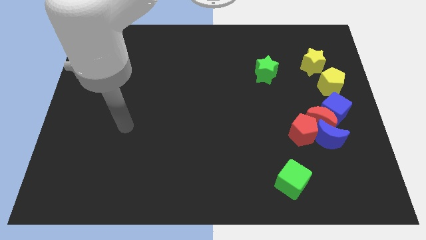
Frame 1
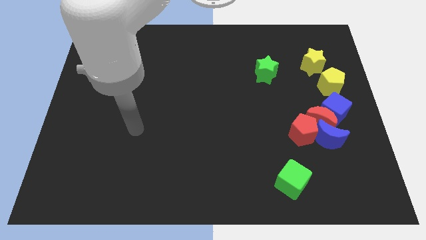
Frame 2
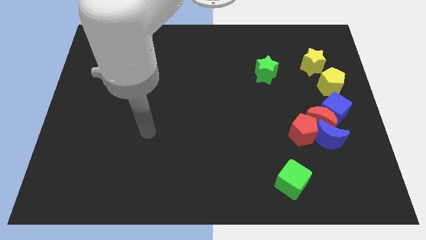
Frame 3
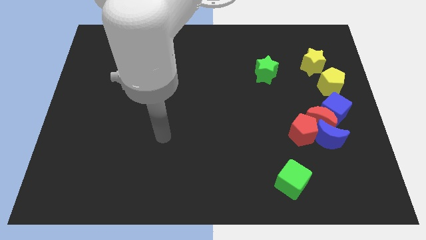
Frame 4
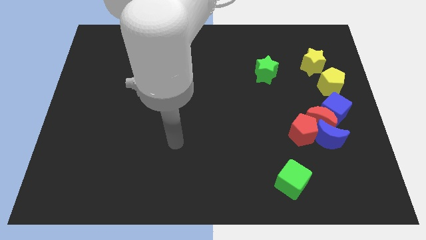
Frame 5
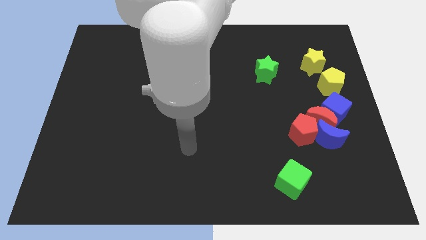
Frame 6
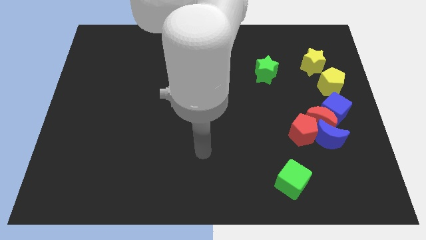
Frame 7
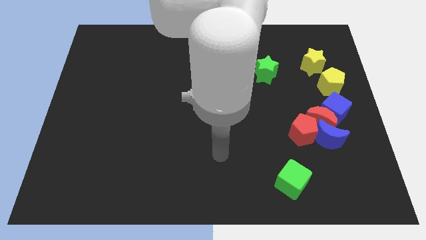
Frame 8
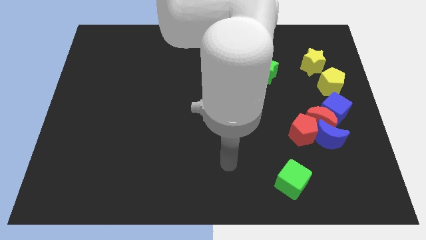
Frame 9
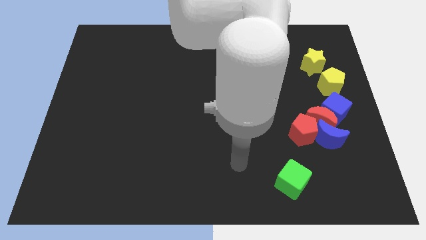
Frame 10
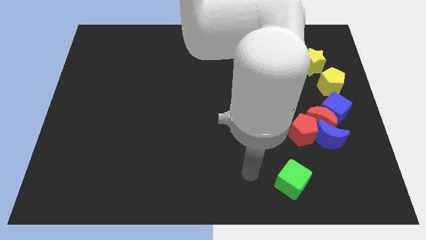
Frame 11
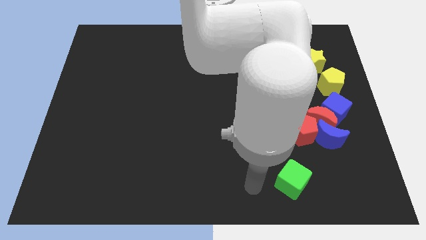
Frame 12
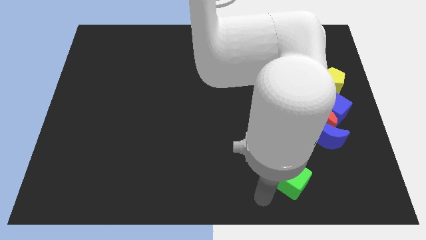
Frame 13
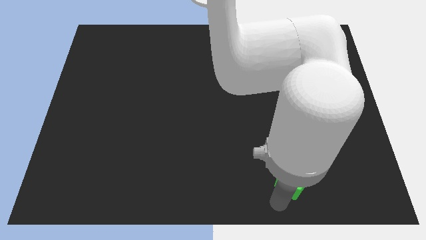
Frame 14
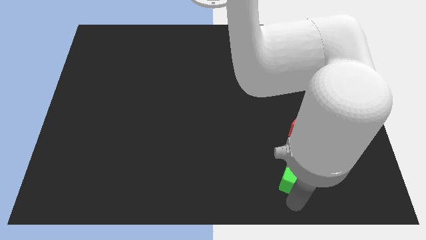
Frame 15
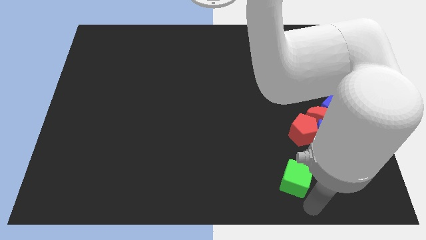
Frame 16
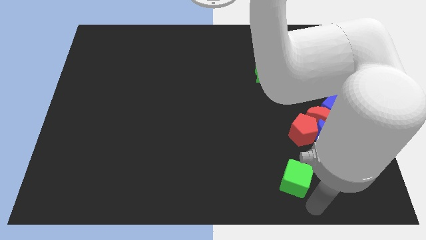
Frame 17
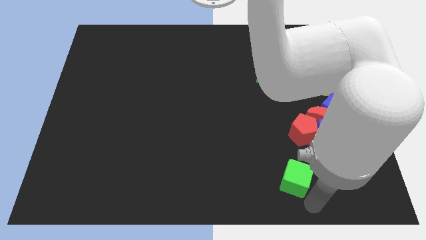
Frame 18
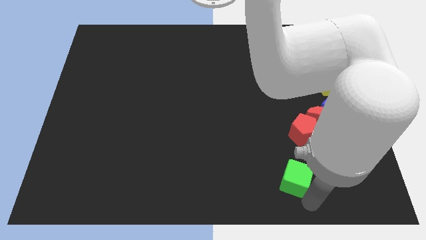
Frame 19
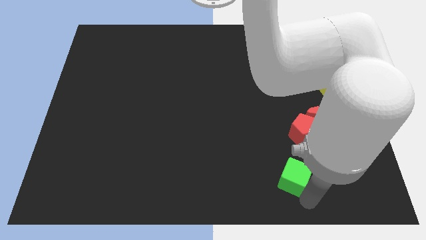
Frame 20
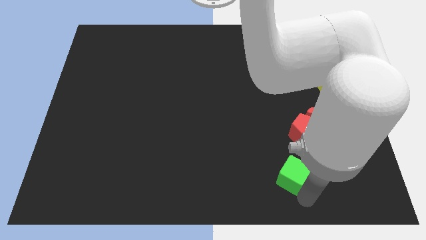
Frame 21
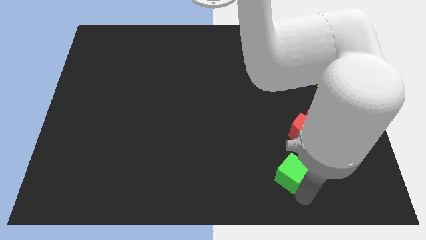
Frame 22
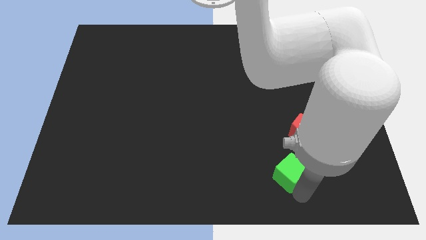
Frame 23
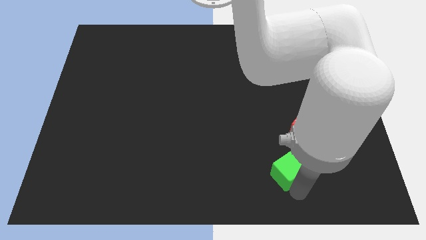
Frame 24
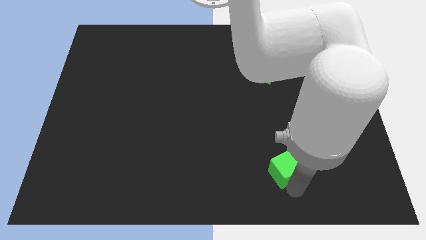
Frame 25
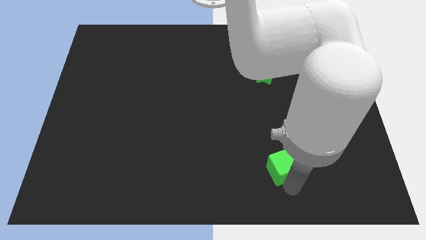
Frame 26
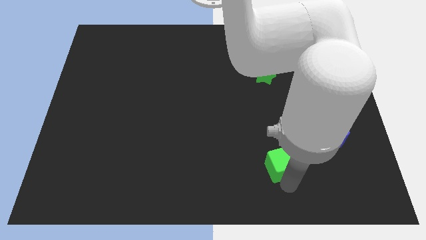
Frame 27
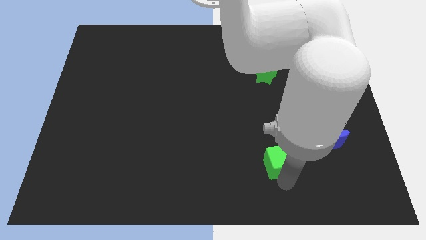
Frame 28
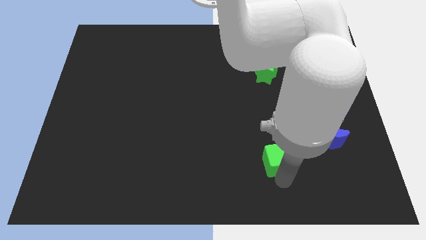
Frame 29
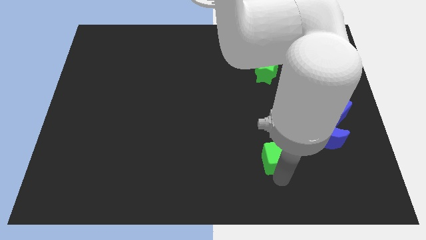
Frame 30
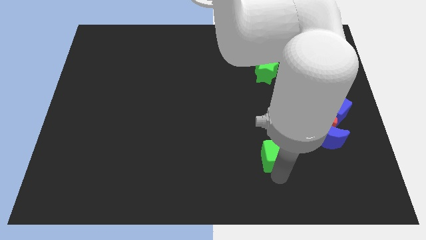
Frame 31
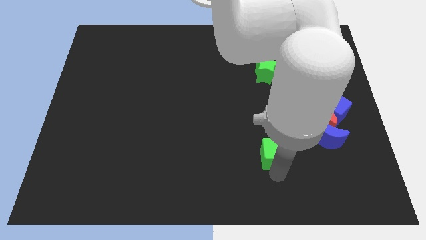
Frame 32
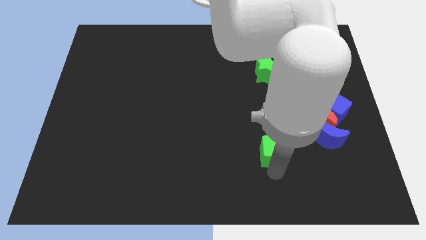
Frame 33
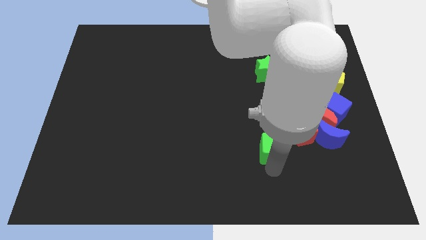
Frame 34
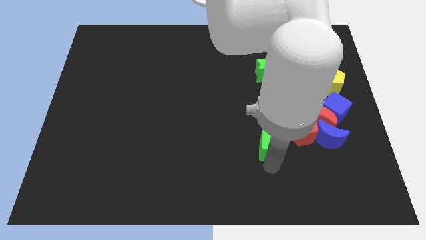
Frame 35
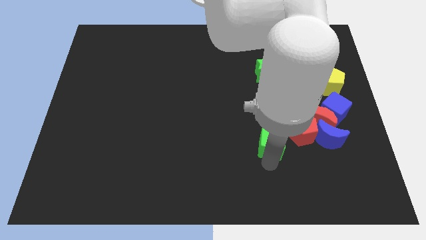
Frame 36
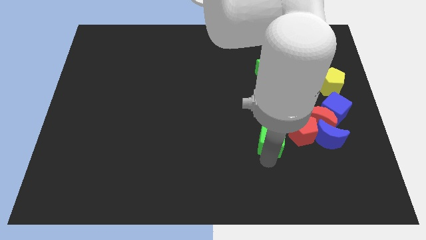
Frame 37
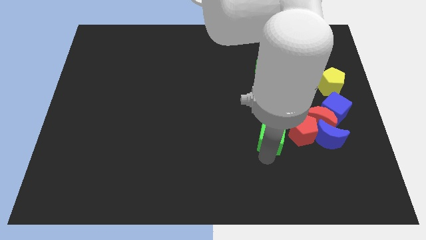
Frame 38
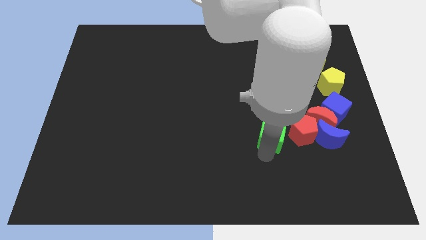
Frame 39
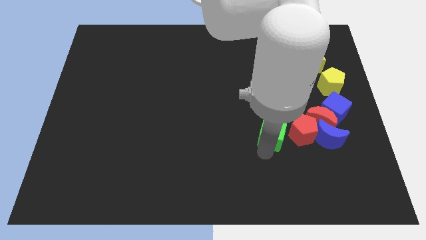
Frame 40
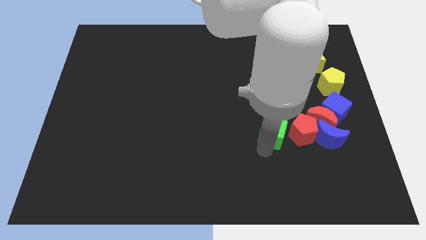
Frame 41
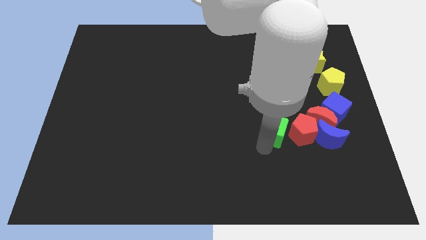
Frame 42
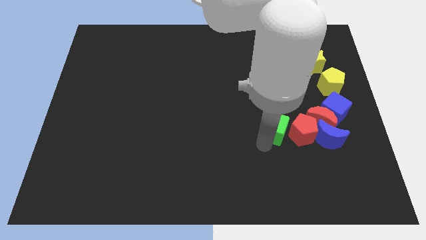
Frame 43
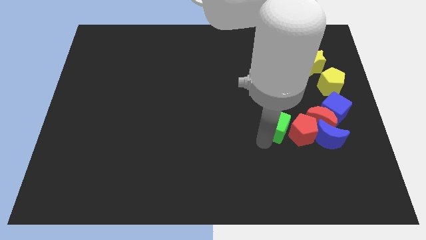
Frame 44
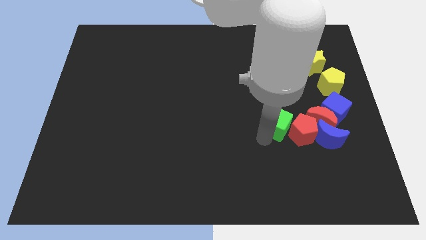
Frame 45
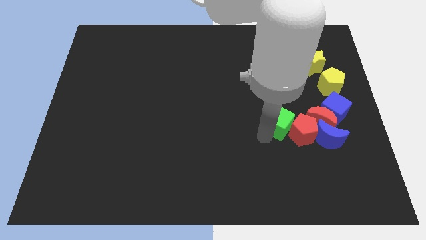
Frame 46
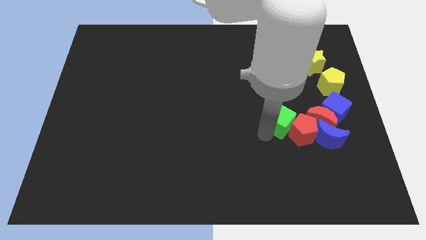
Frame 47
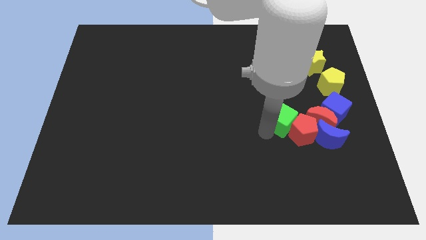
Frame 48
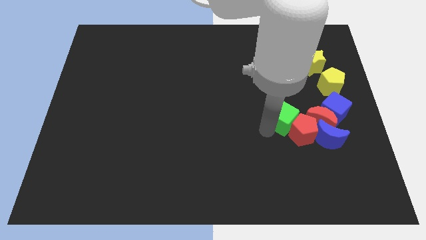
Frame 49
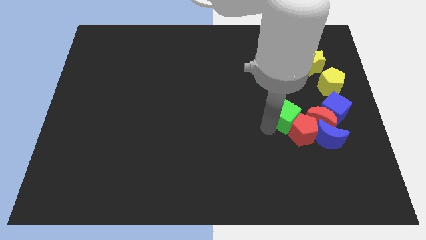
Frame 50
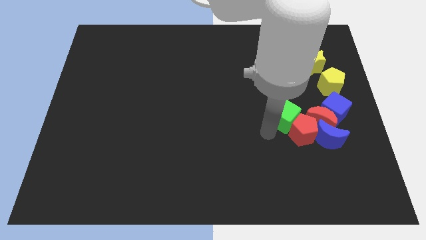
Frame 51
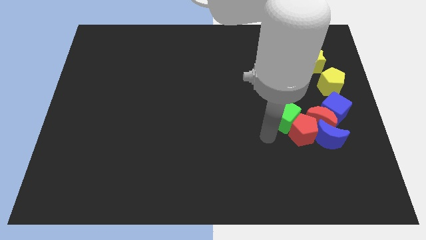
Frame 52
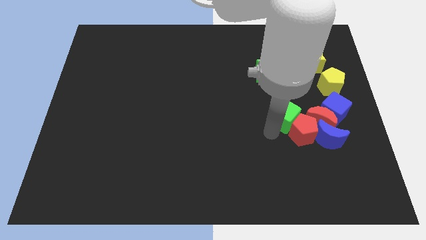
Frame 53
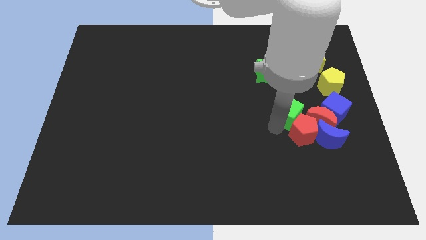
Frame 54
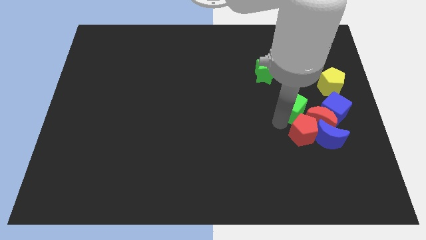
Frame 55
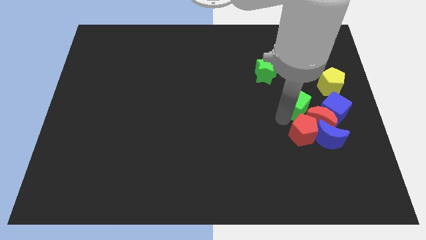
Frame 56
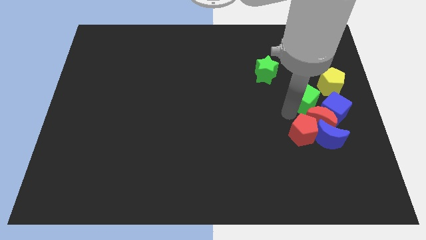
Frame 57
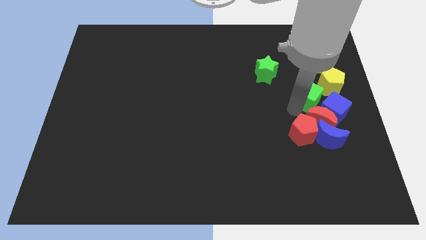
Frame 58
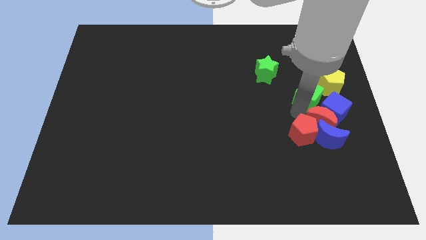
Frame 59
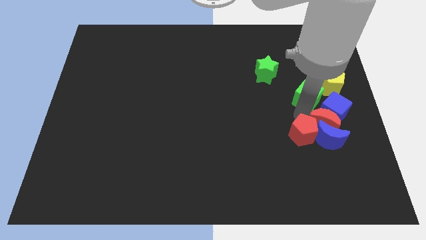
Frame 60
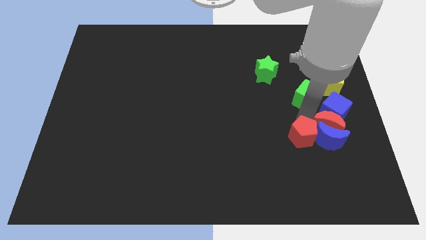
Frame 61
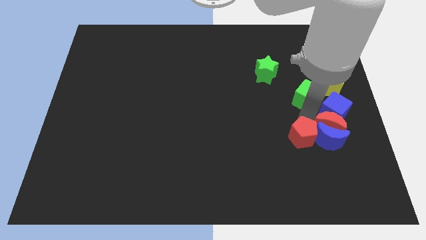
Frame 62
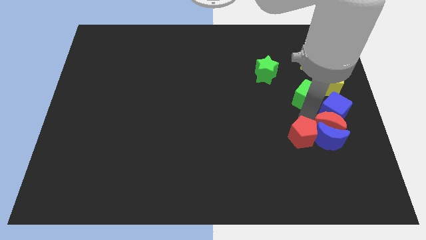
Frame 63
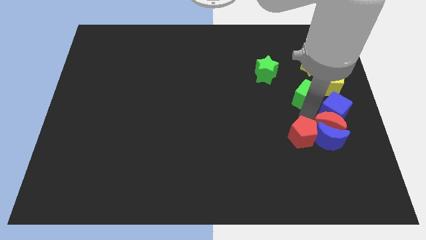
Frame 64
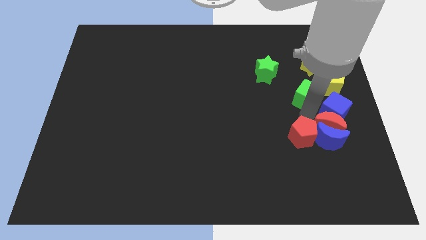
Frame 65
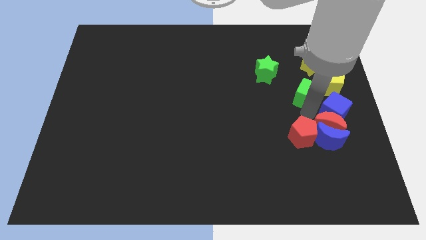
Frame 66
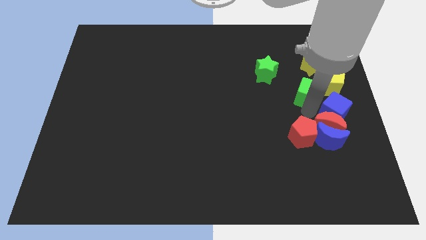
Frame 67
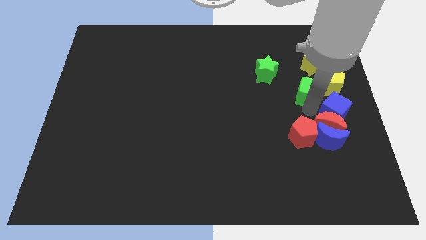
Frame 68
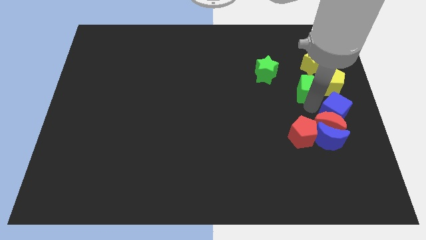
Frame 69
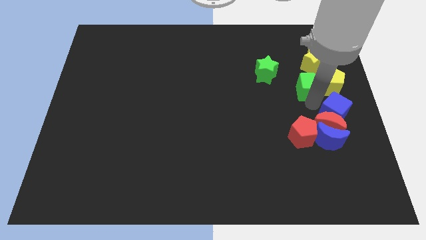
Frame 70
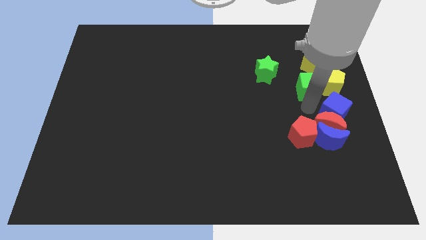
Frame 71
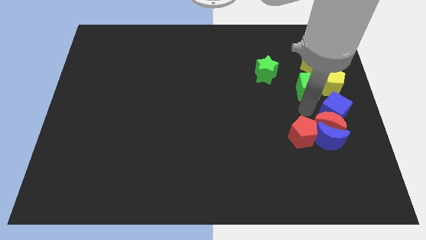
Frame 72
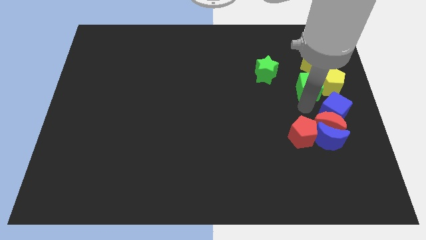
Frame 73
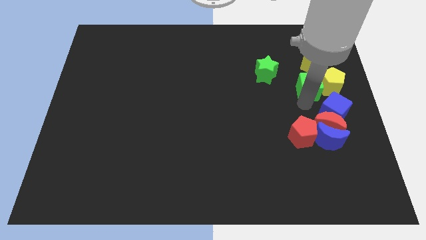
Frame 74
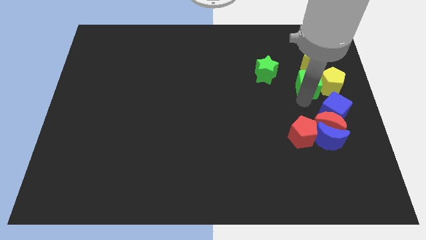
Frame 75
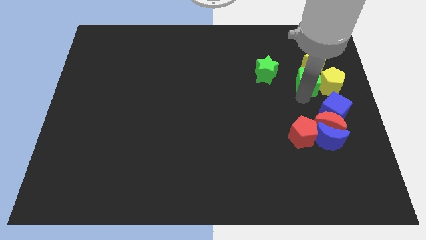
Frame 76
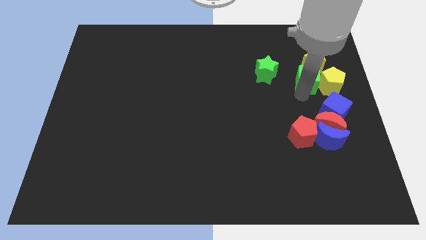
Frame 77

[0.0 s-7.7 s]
put the green cube next to the yellow star
